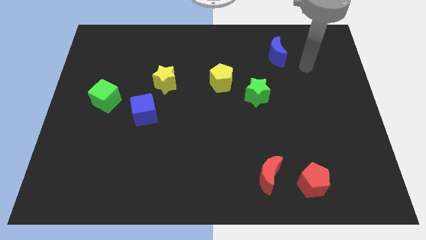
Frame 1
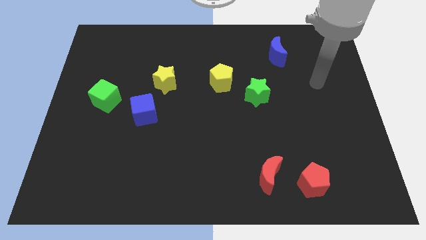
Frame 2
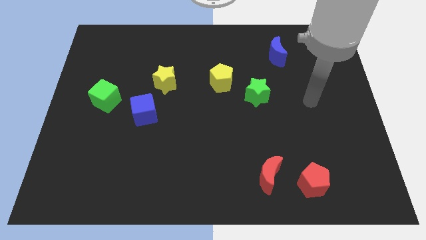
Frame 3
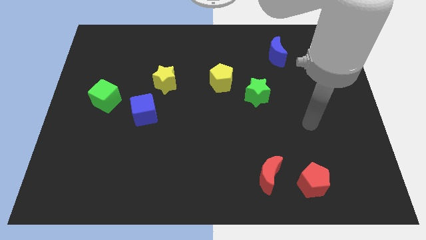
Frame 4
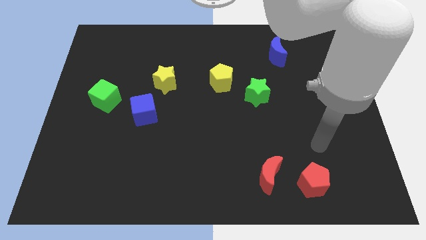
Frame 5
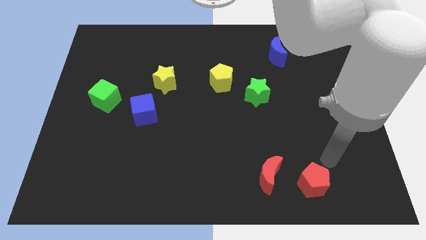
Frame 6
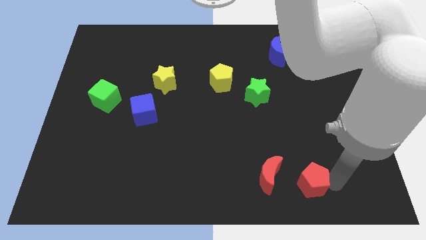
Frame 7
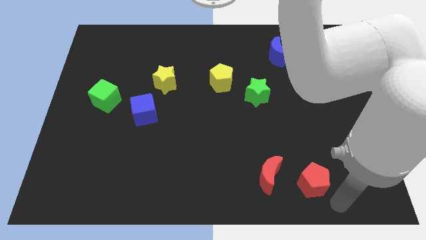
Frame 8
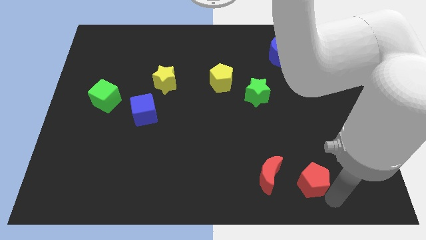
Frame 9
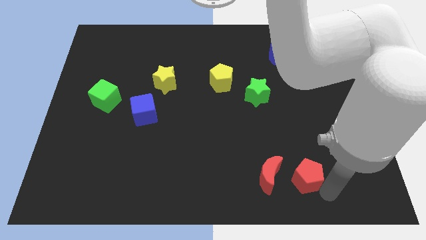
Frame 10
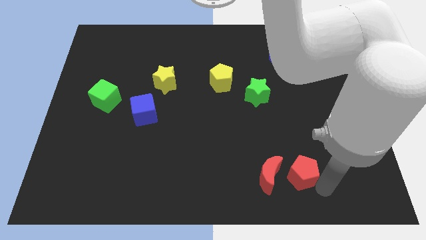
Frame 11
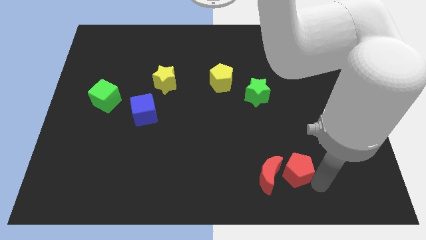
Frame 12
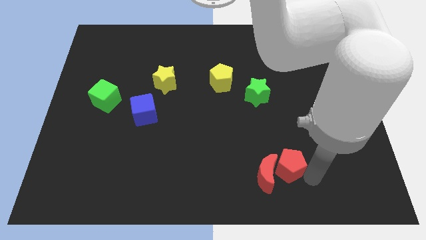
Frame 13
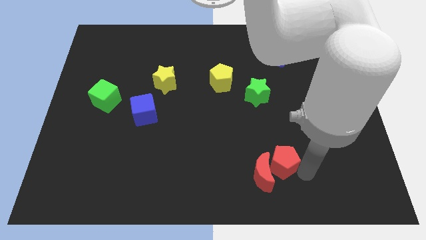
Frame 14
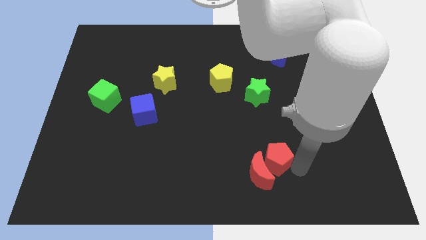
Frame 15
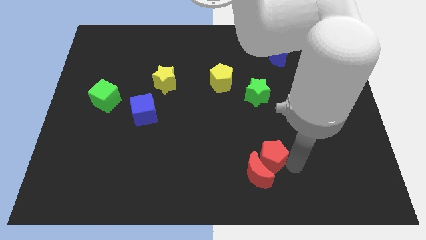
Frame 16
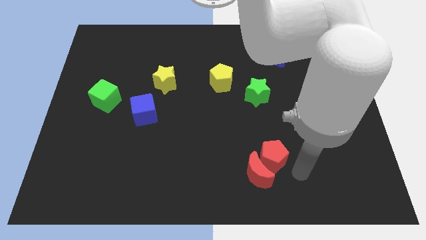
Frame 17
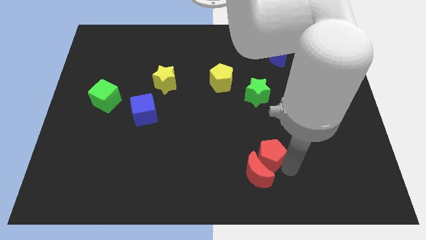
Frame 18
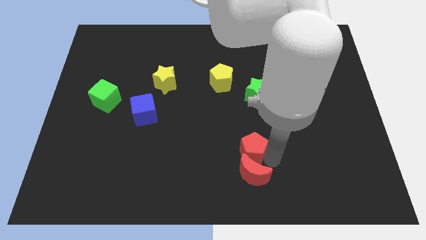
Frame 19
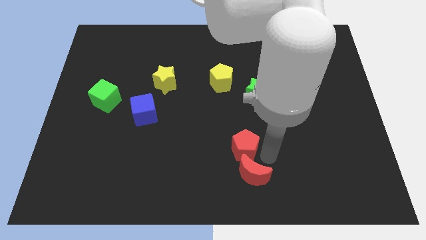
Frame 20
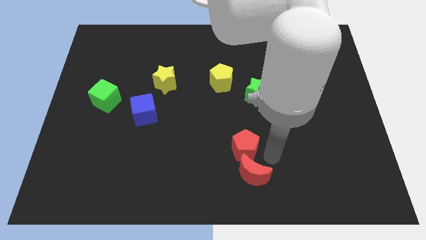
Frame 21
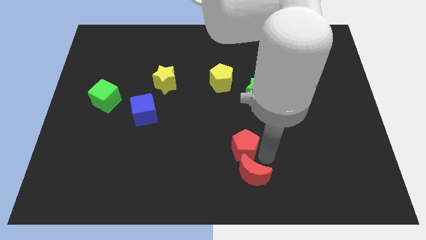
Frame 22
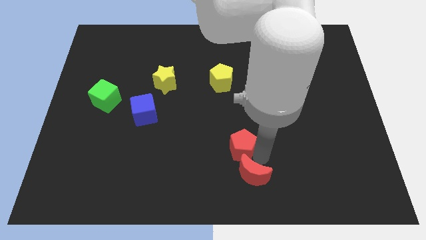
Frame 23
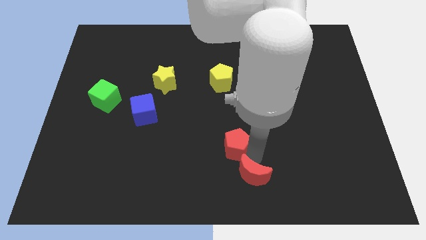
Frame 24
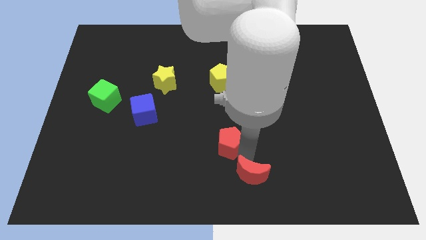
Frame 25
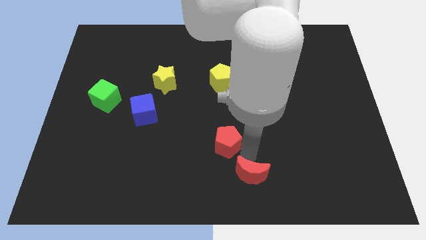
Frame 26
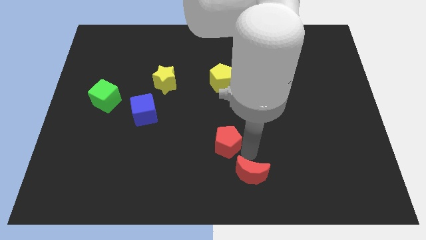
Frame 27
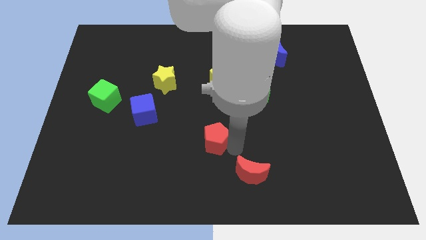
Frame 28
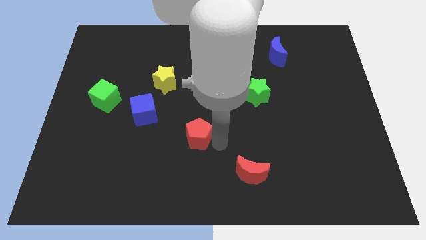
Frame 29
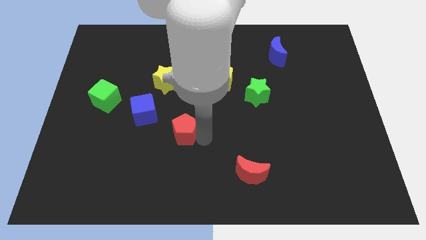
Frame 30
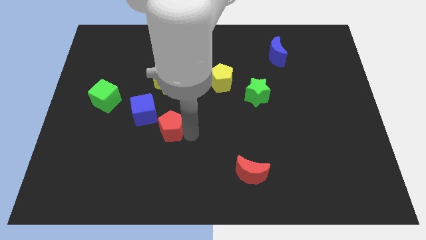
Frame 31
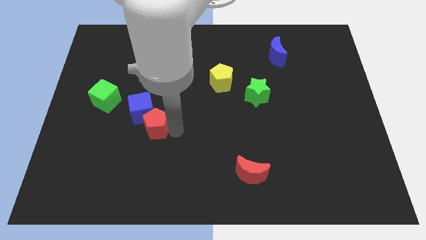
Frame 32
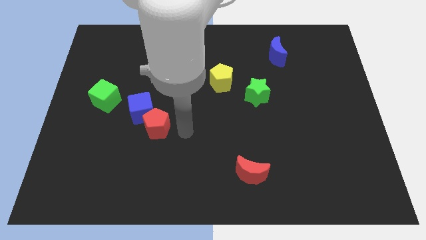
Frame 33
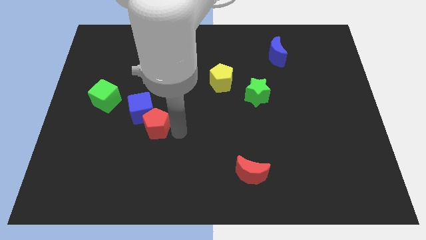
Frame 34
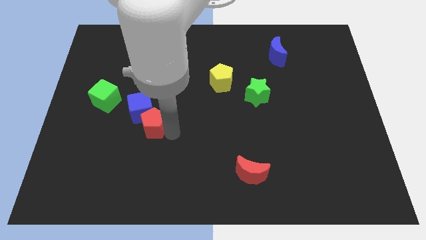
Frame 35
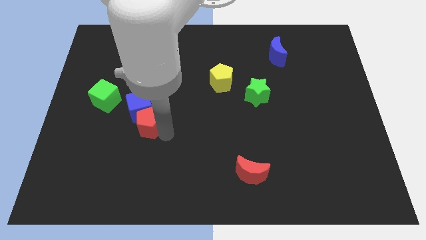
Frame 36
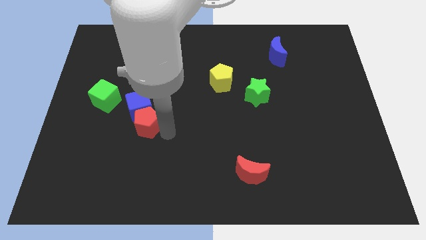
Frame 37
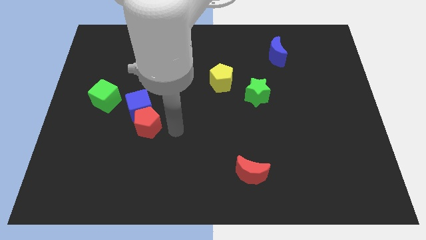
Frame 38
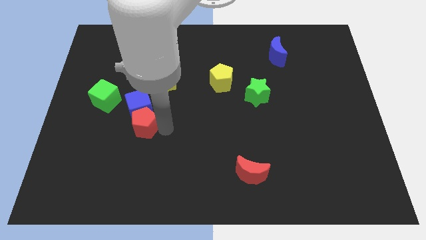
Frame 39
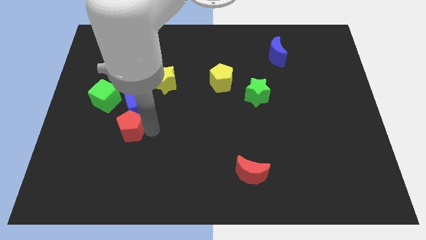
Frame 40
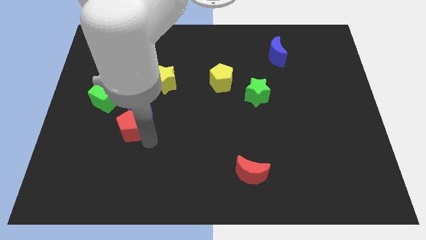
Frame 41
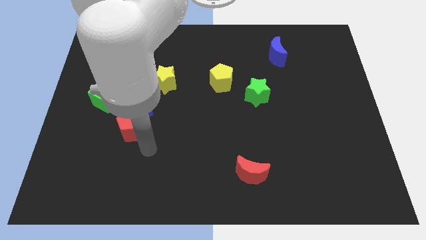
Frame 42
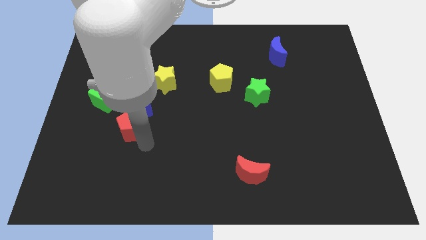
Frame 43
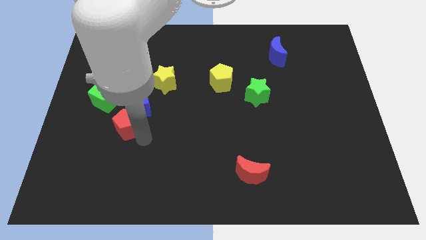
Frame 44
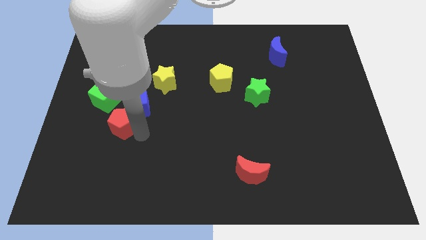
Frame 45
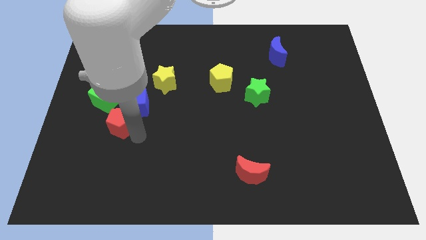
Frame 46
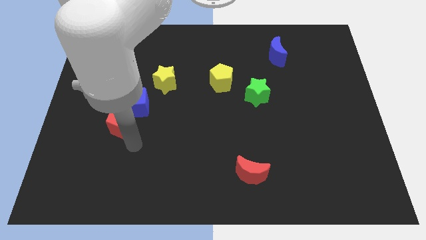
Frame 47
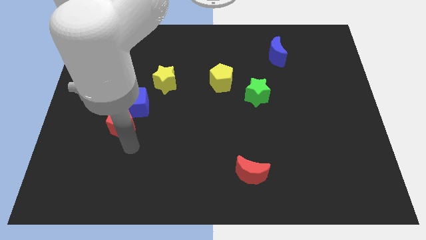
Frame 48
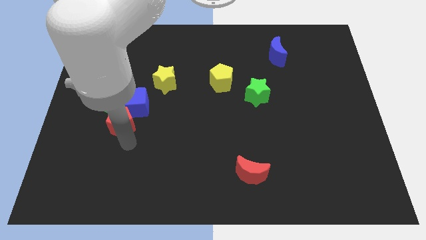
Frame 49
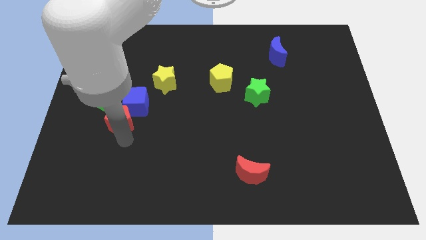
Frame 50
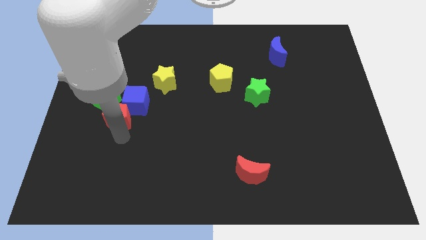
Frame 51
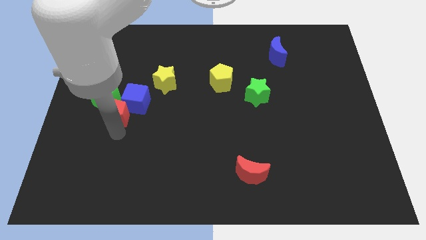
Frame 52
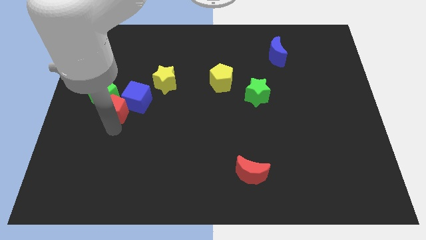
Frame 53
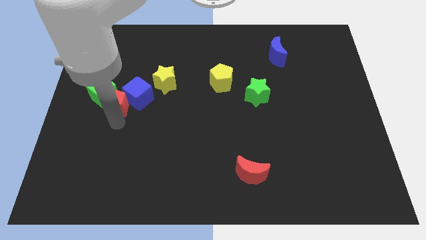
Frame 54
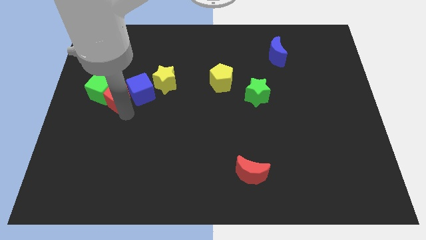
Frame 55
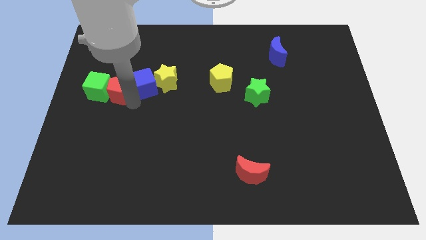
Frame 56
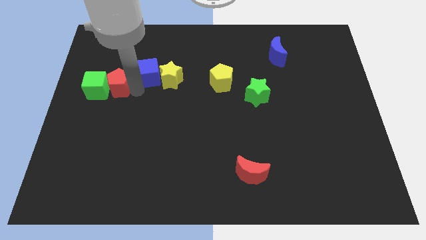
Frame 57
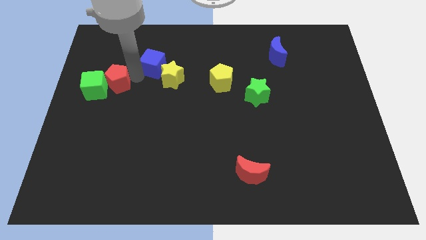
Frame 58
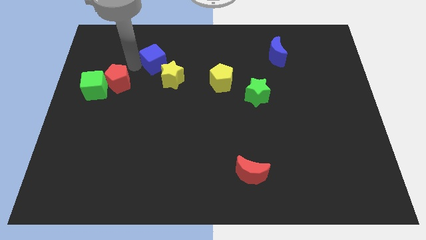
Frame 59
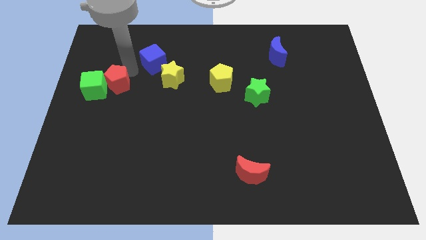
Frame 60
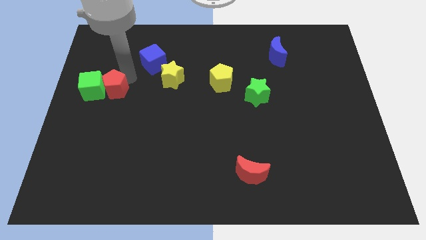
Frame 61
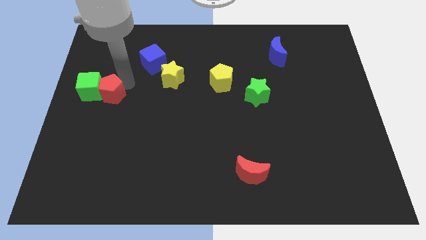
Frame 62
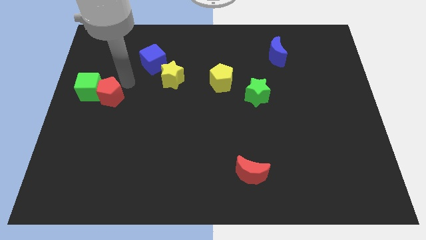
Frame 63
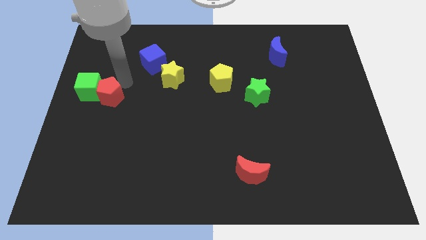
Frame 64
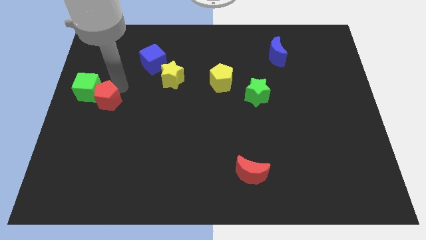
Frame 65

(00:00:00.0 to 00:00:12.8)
push the red pentagon to the left side

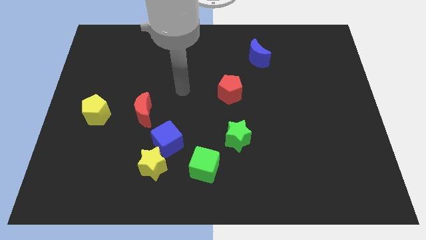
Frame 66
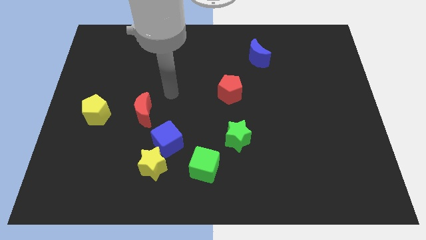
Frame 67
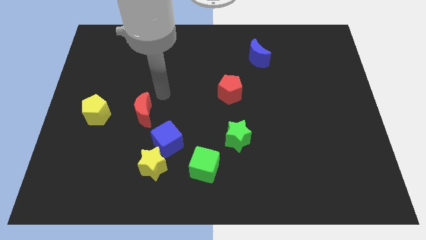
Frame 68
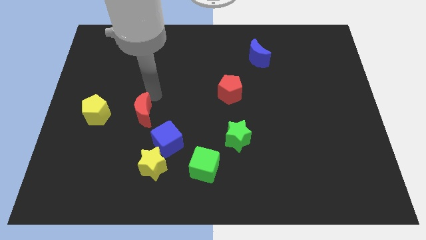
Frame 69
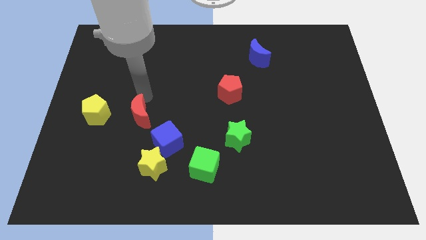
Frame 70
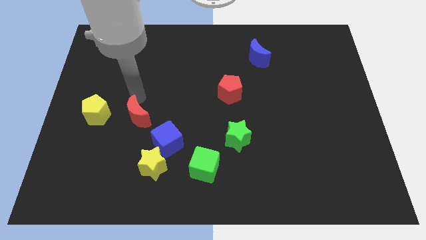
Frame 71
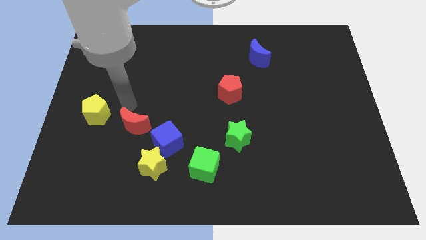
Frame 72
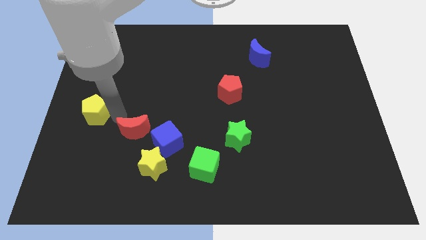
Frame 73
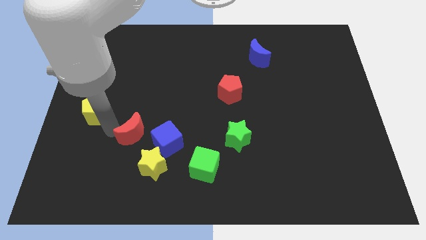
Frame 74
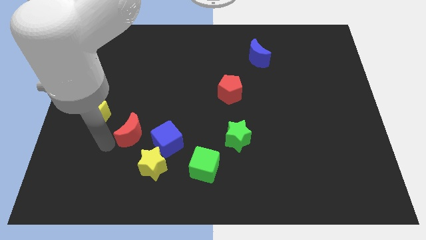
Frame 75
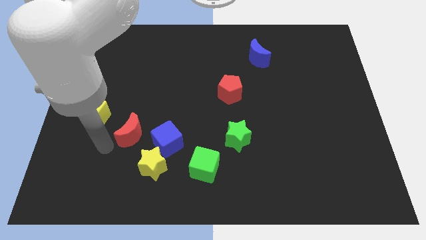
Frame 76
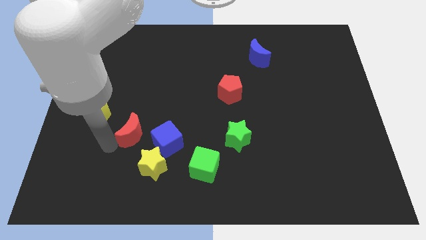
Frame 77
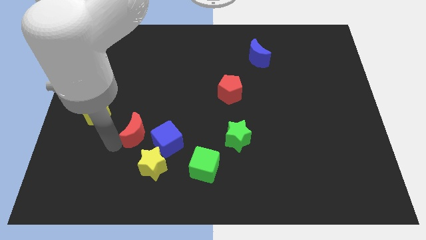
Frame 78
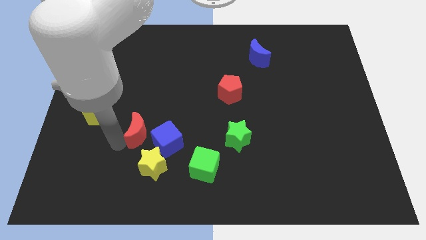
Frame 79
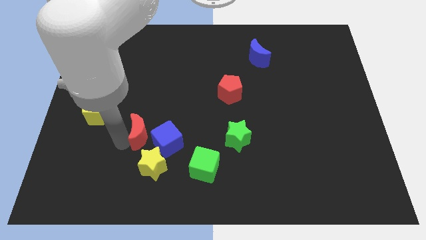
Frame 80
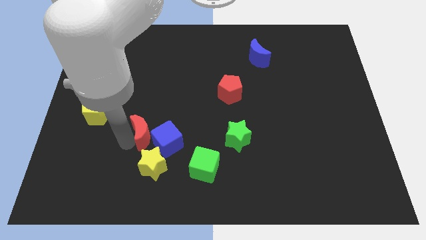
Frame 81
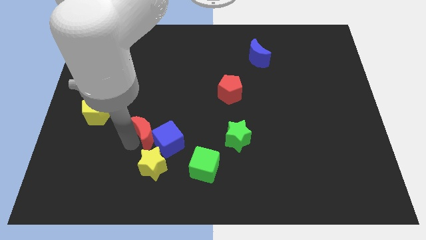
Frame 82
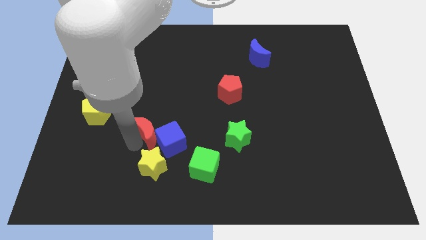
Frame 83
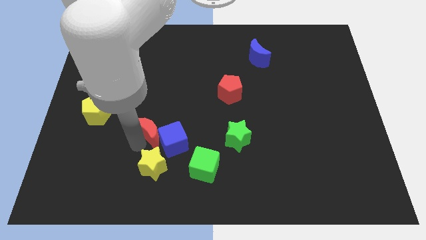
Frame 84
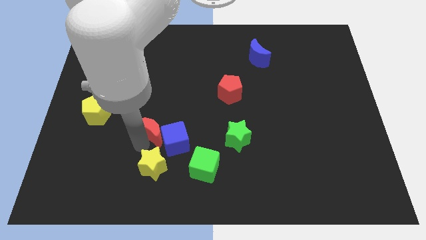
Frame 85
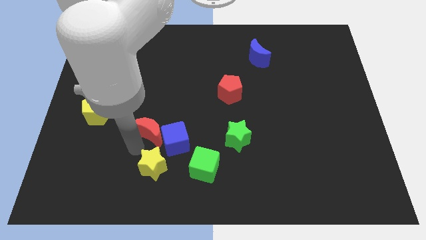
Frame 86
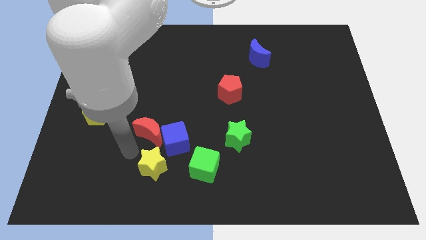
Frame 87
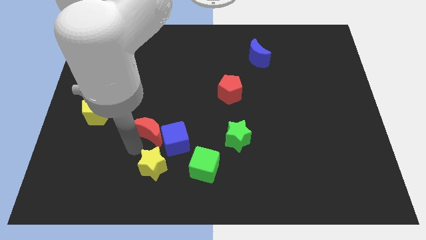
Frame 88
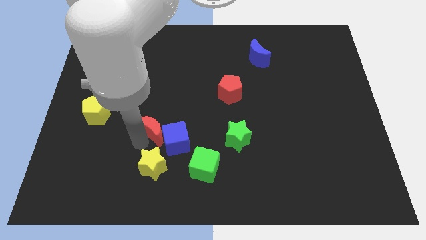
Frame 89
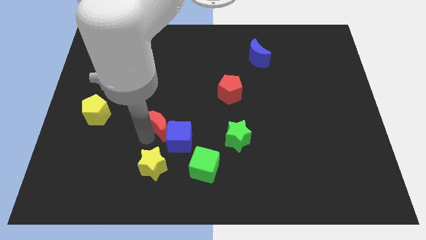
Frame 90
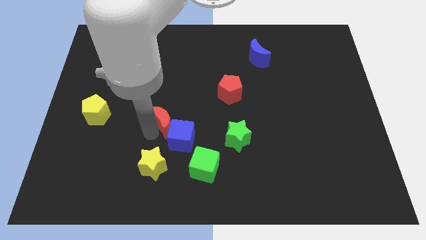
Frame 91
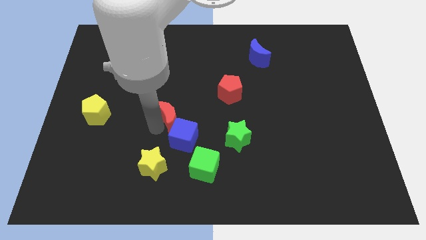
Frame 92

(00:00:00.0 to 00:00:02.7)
move the red moon to the center of the board
